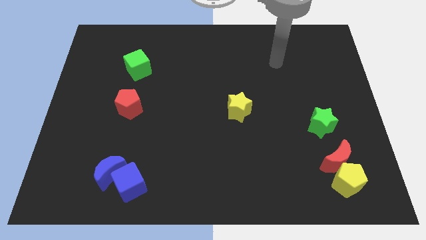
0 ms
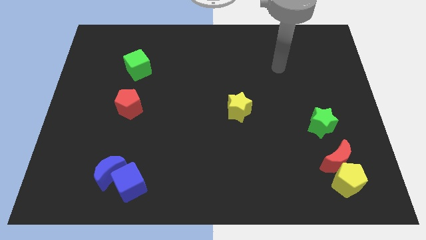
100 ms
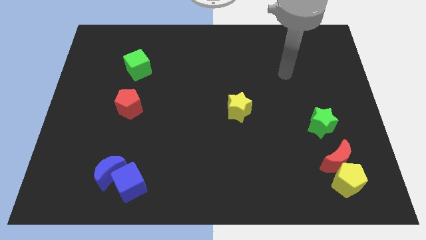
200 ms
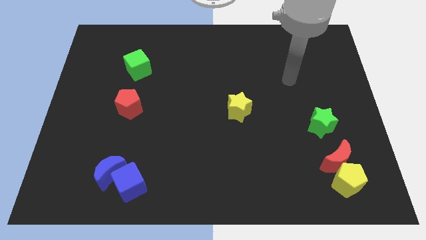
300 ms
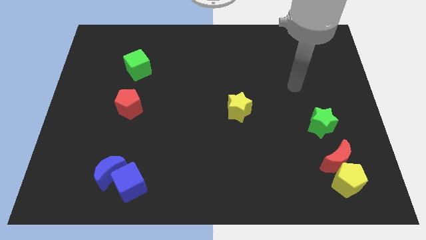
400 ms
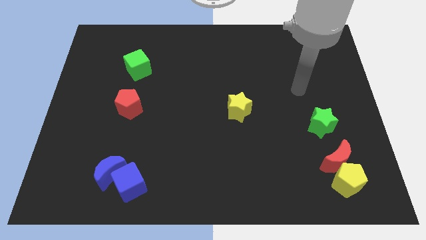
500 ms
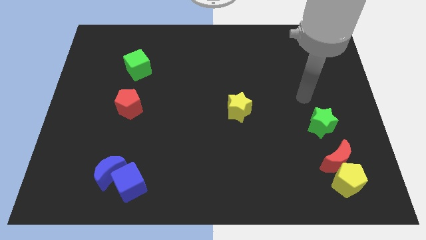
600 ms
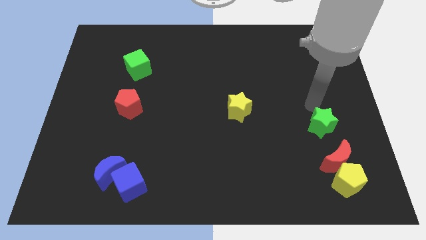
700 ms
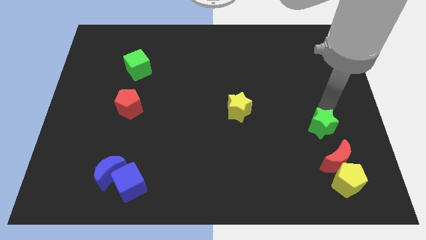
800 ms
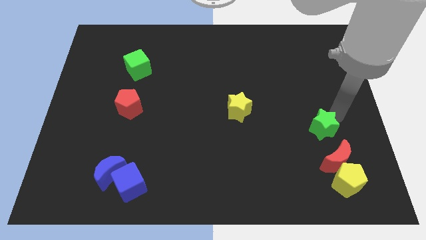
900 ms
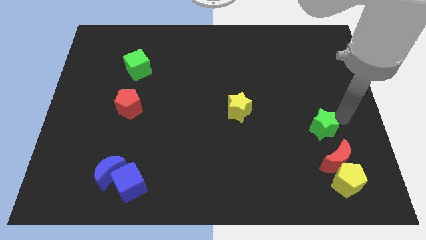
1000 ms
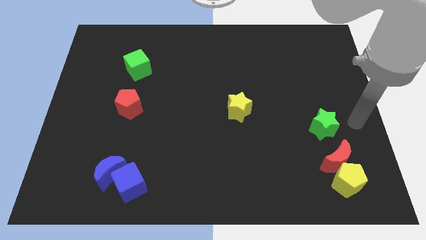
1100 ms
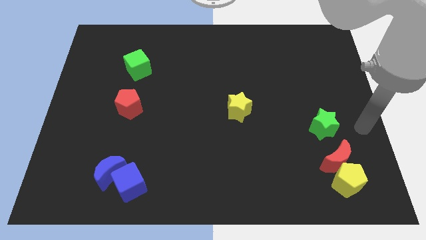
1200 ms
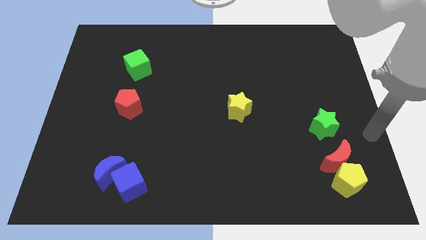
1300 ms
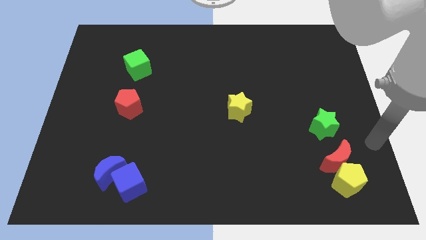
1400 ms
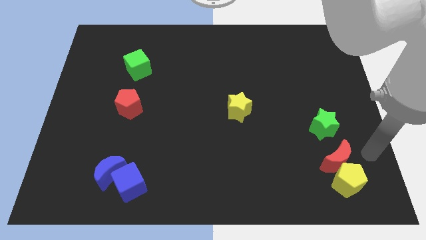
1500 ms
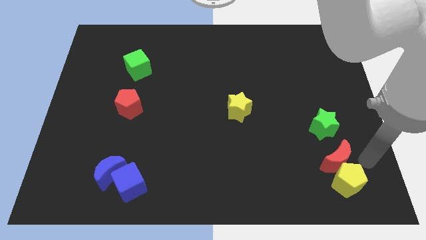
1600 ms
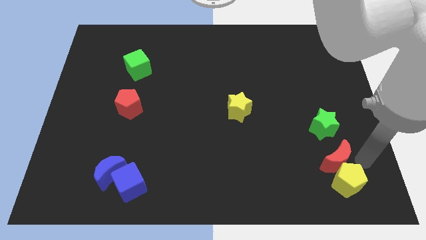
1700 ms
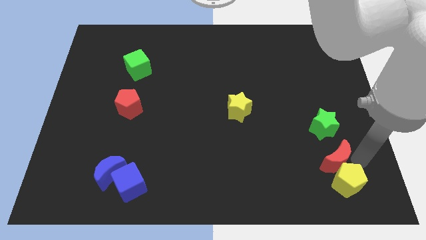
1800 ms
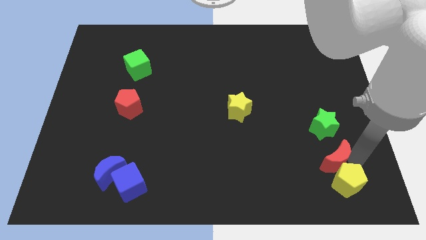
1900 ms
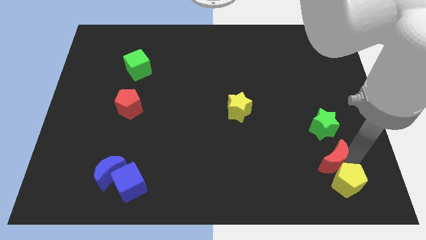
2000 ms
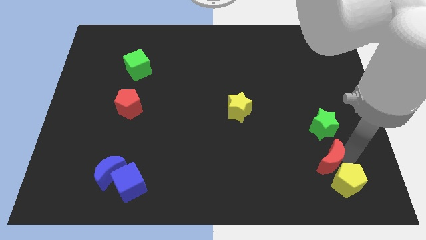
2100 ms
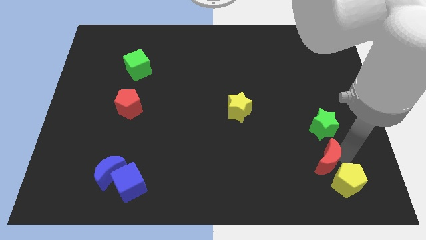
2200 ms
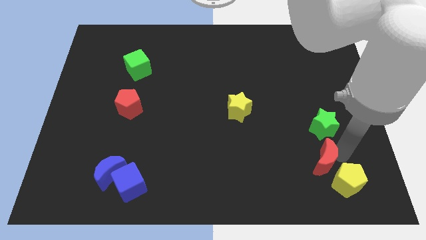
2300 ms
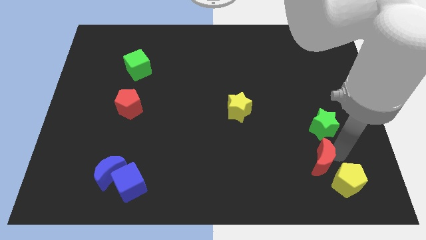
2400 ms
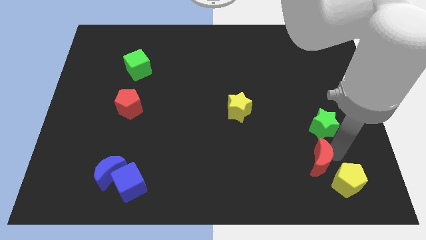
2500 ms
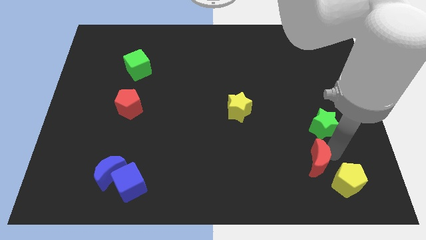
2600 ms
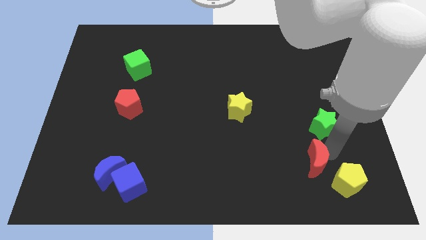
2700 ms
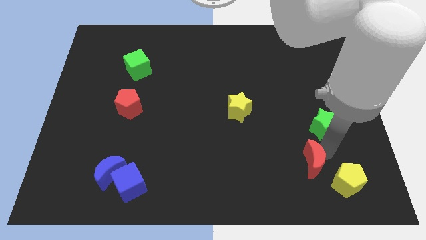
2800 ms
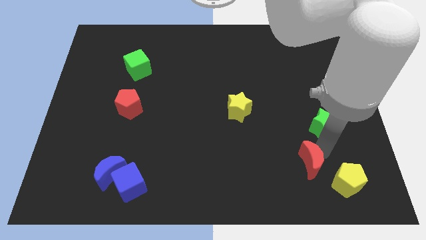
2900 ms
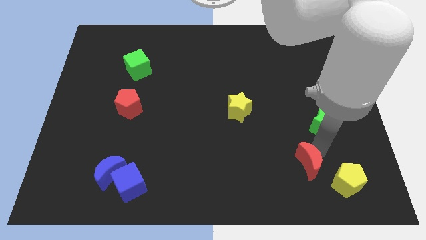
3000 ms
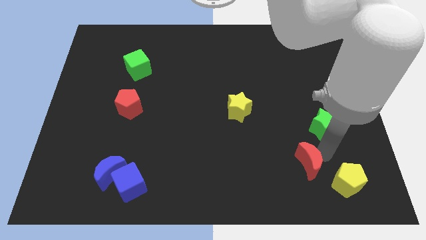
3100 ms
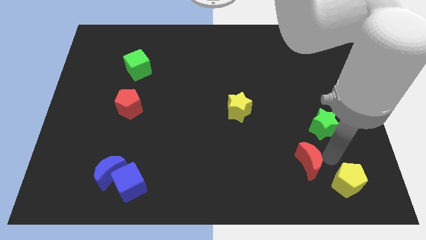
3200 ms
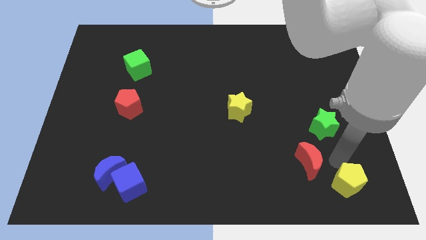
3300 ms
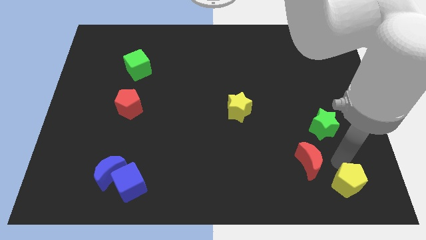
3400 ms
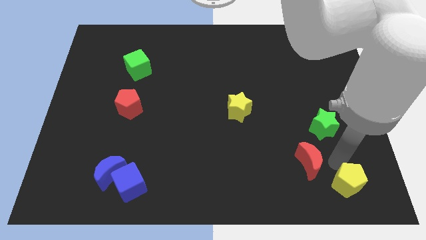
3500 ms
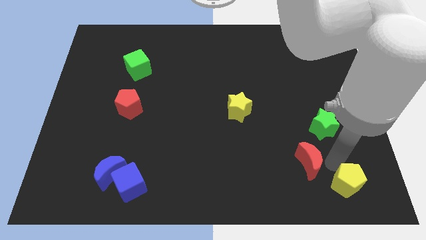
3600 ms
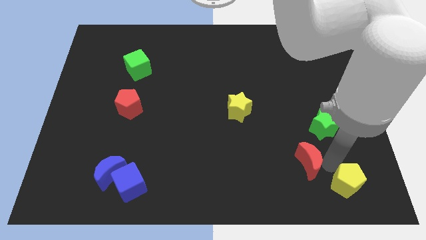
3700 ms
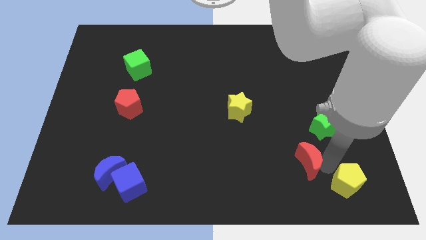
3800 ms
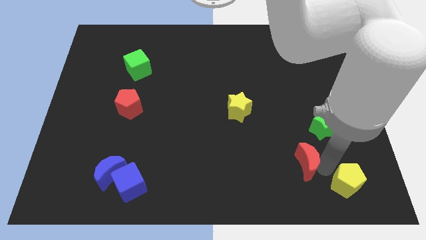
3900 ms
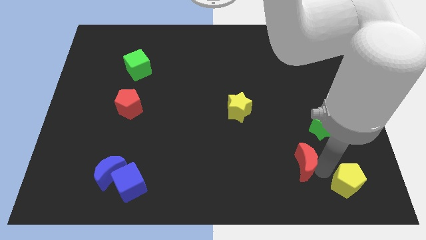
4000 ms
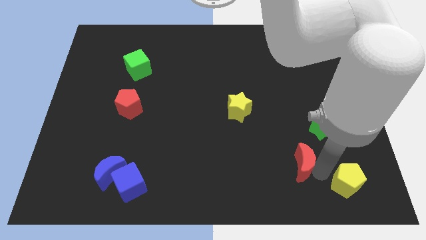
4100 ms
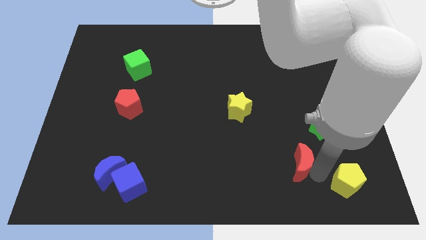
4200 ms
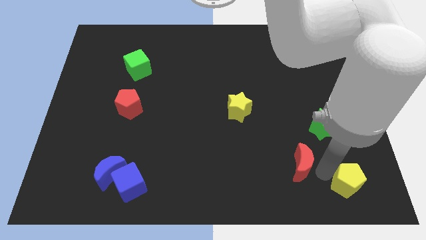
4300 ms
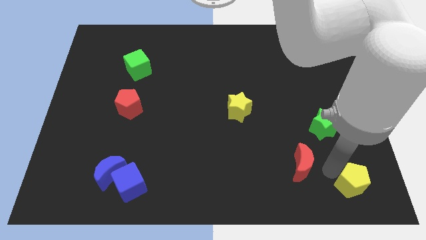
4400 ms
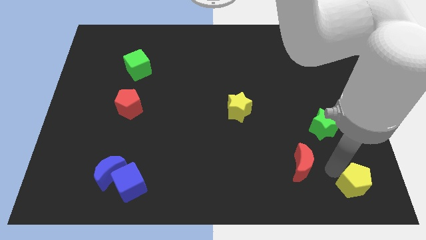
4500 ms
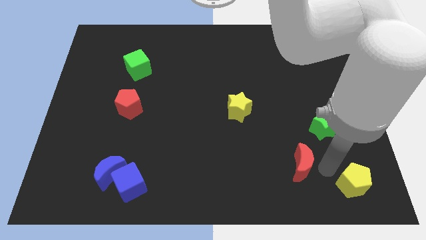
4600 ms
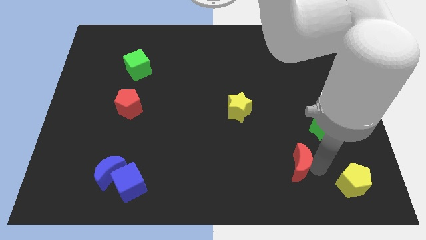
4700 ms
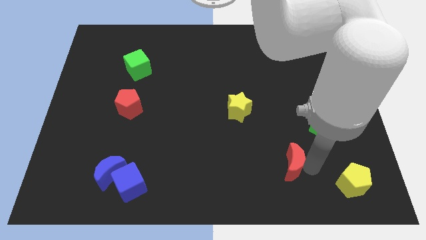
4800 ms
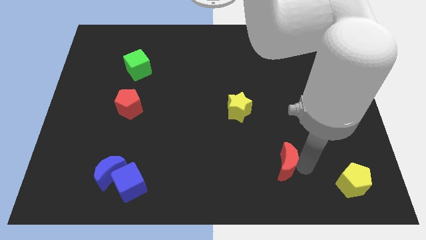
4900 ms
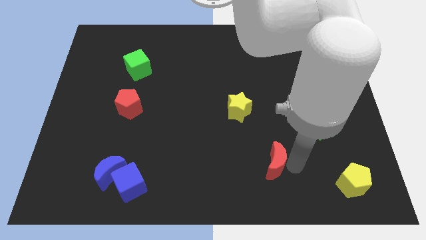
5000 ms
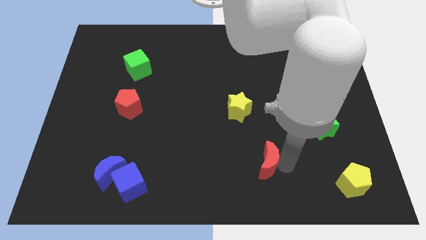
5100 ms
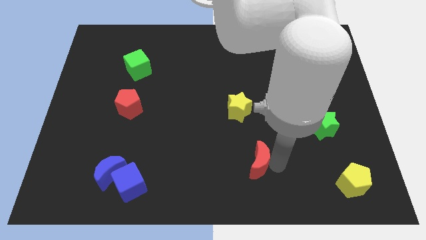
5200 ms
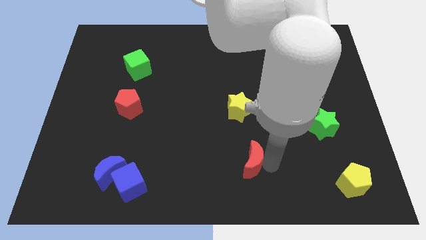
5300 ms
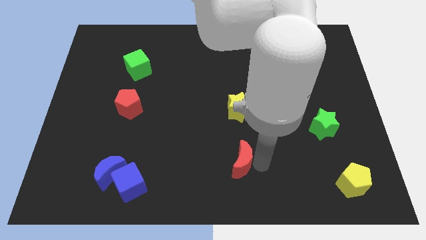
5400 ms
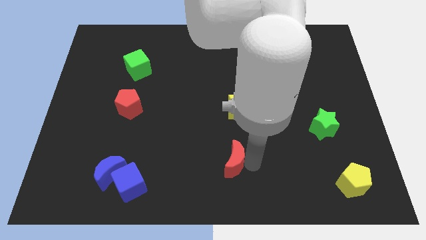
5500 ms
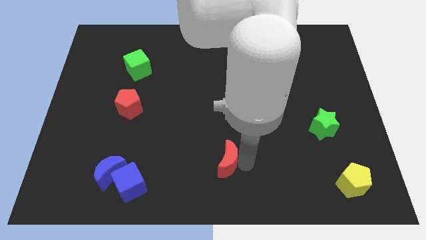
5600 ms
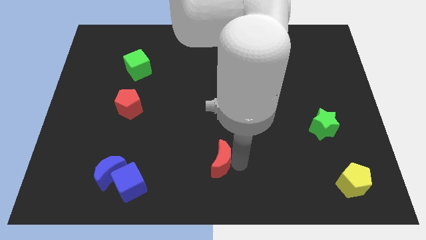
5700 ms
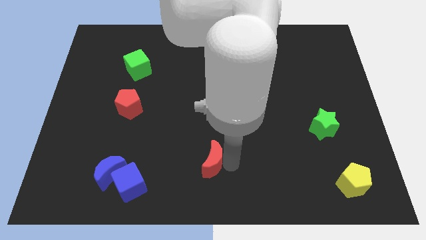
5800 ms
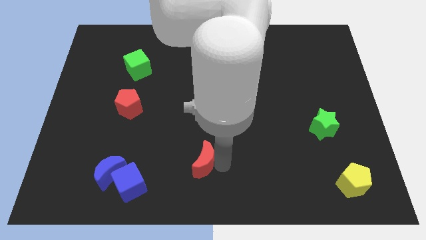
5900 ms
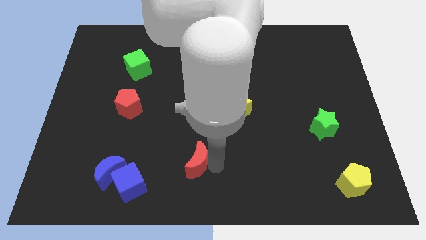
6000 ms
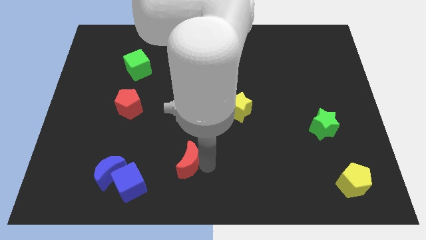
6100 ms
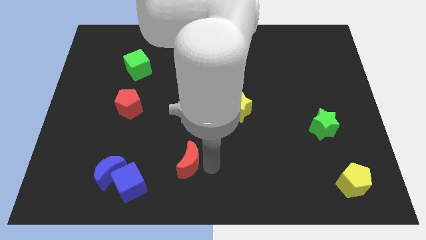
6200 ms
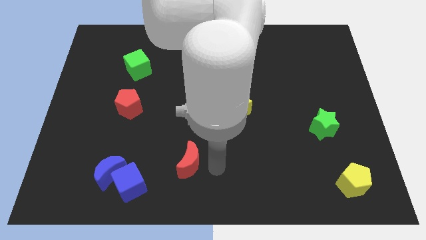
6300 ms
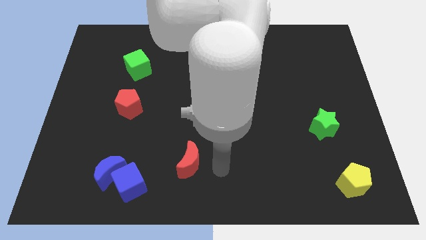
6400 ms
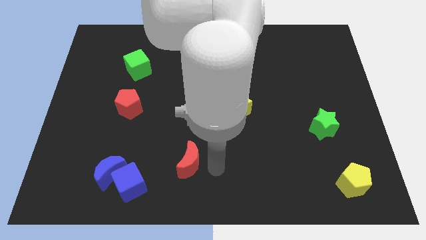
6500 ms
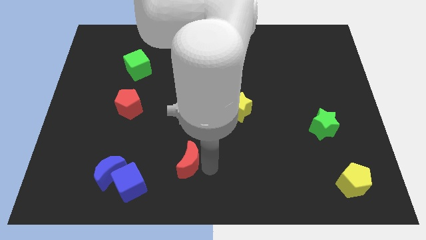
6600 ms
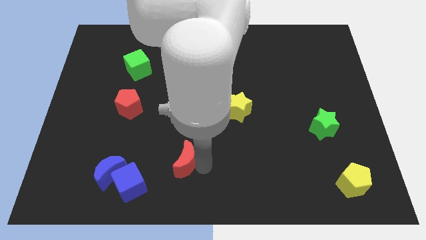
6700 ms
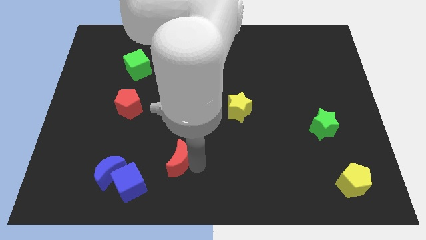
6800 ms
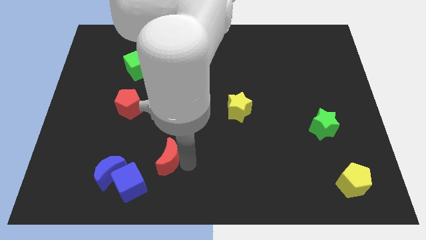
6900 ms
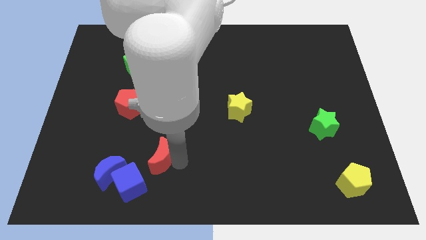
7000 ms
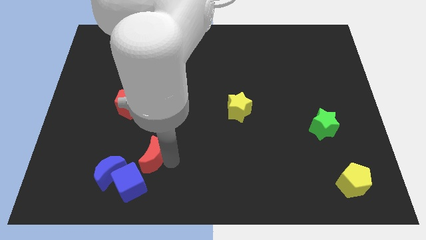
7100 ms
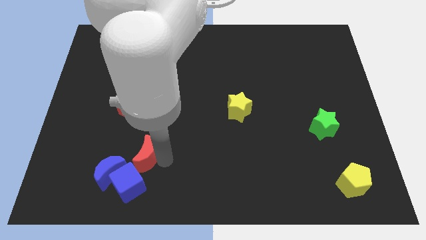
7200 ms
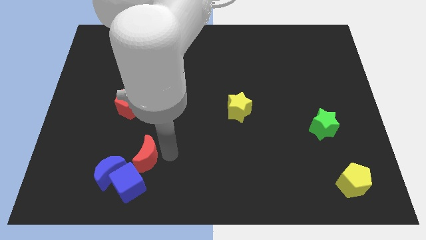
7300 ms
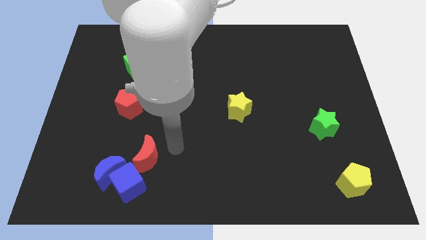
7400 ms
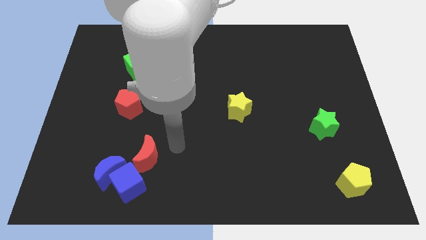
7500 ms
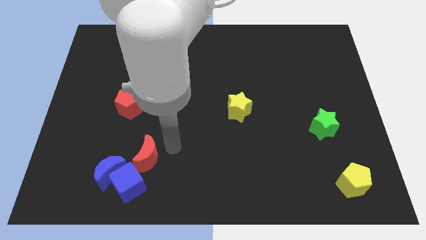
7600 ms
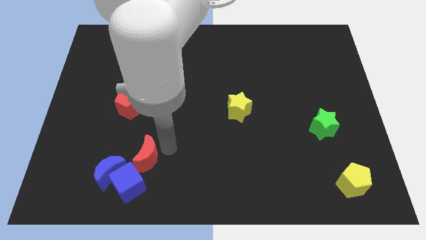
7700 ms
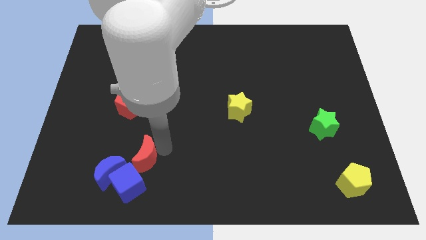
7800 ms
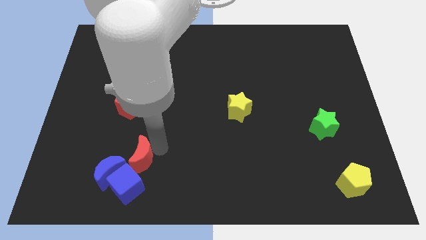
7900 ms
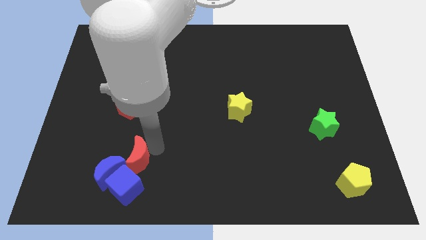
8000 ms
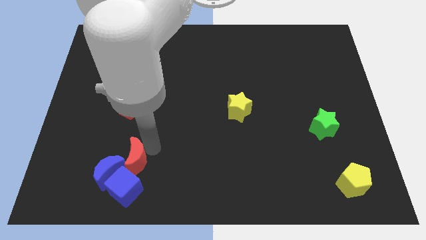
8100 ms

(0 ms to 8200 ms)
slide the red moon close to the blue moon
